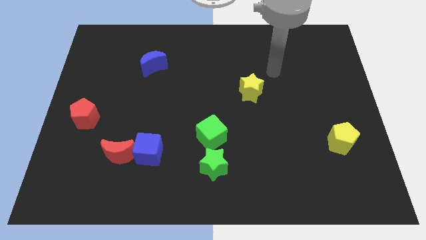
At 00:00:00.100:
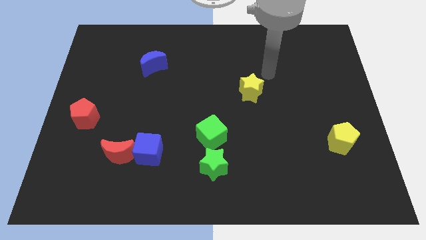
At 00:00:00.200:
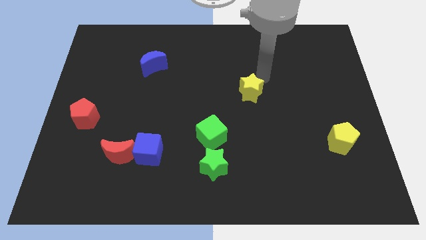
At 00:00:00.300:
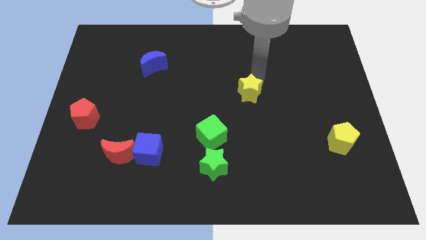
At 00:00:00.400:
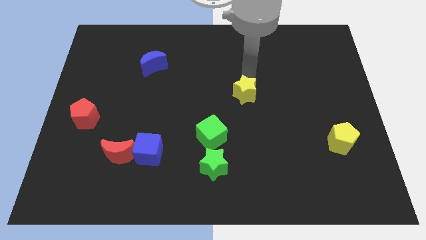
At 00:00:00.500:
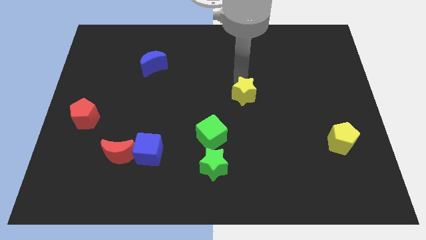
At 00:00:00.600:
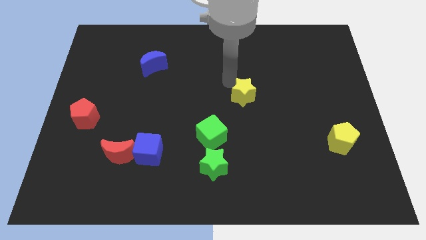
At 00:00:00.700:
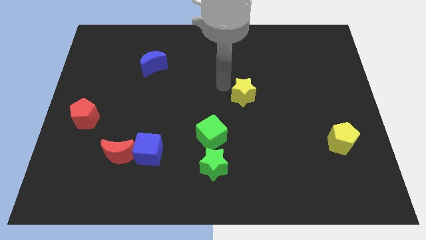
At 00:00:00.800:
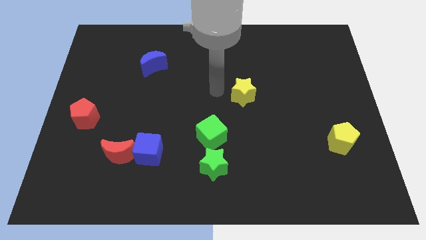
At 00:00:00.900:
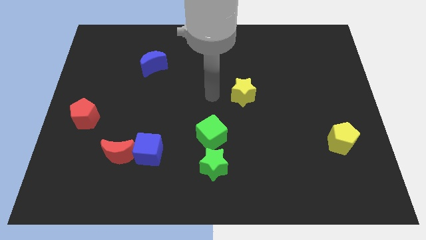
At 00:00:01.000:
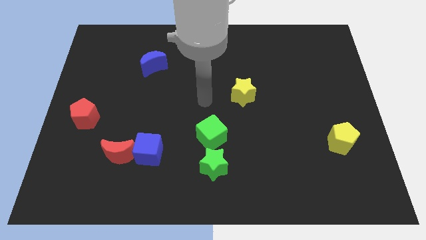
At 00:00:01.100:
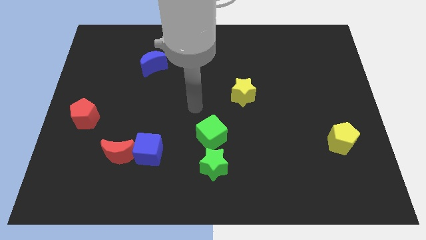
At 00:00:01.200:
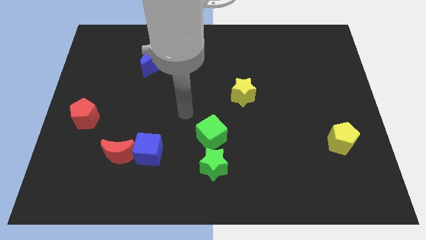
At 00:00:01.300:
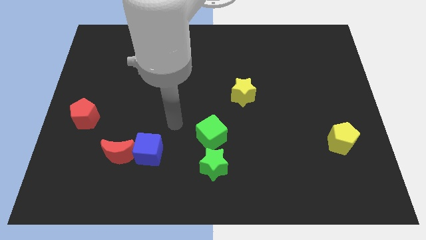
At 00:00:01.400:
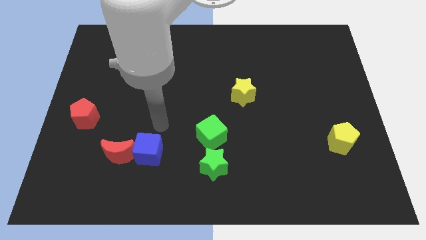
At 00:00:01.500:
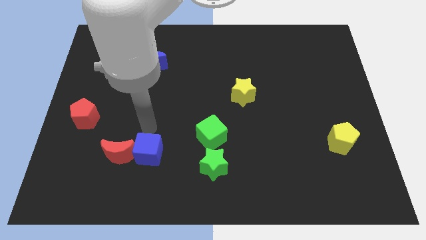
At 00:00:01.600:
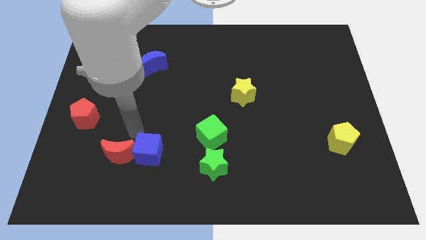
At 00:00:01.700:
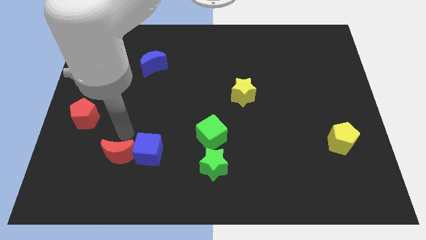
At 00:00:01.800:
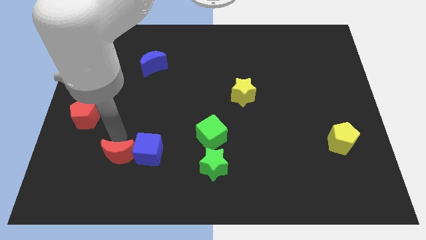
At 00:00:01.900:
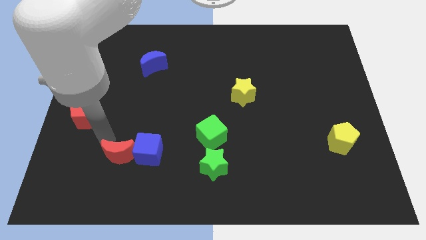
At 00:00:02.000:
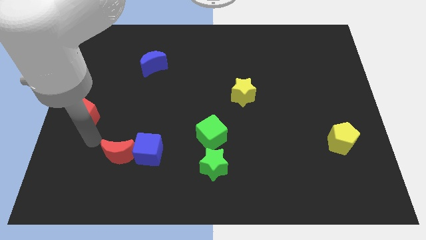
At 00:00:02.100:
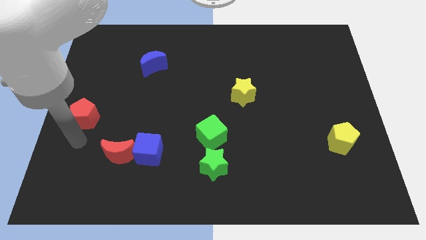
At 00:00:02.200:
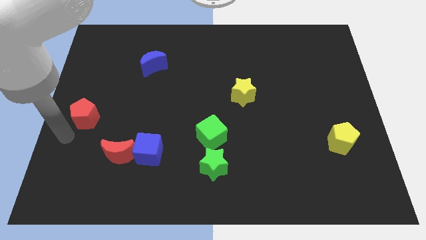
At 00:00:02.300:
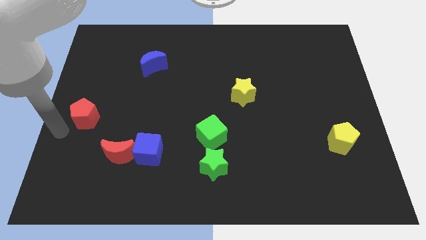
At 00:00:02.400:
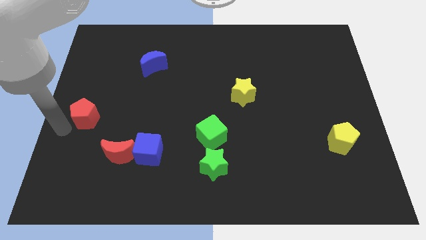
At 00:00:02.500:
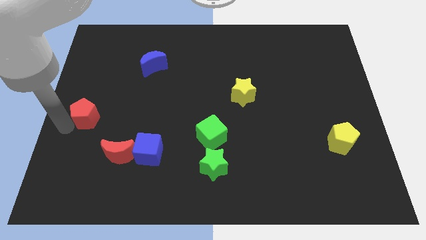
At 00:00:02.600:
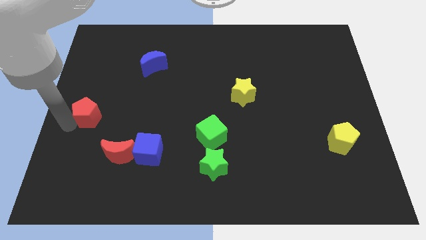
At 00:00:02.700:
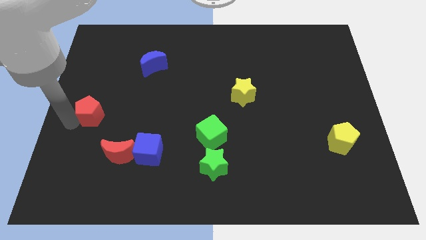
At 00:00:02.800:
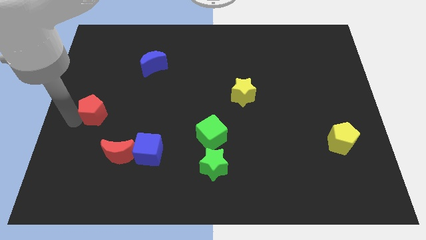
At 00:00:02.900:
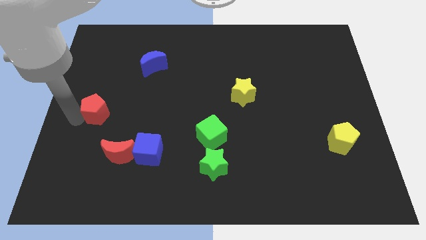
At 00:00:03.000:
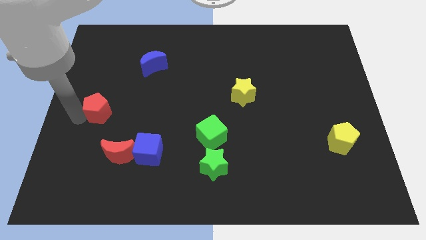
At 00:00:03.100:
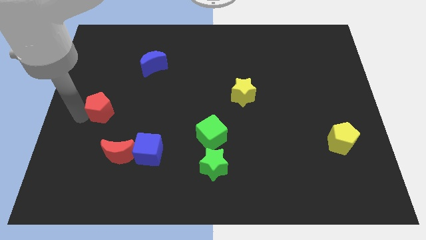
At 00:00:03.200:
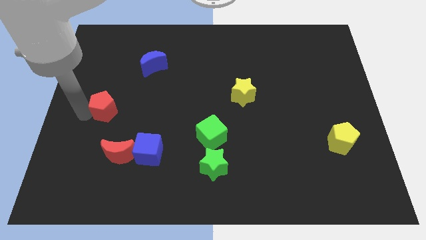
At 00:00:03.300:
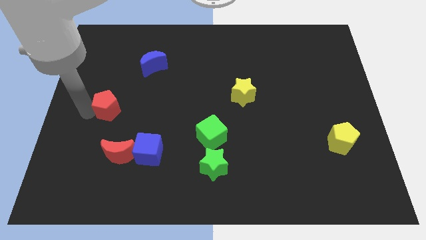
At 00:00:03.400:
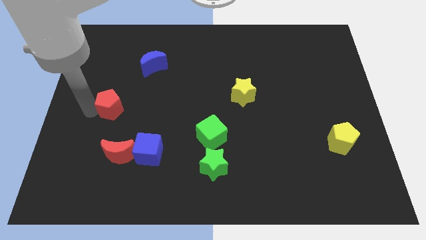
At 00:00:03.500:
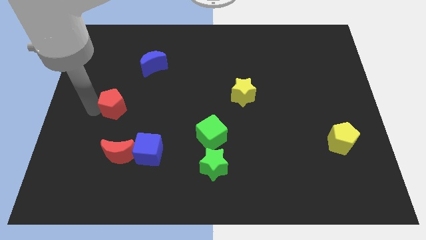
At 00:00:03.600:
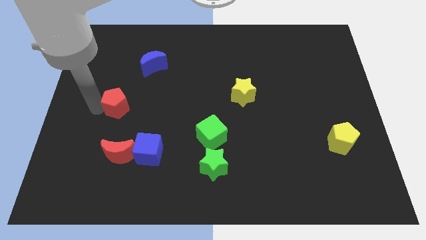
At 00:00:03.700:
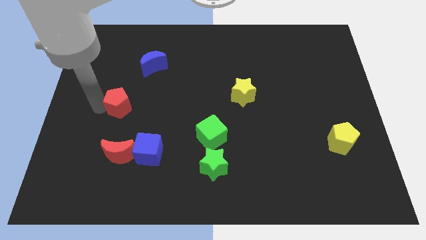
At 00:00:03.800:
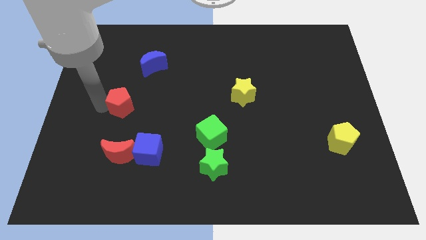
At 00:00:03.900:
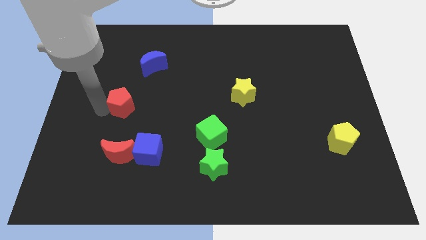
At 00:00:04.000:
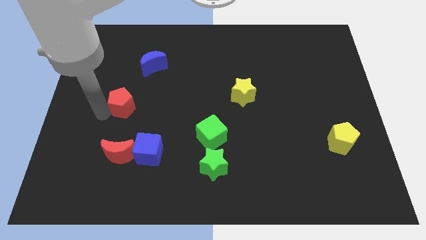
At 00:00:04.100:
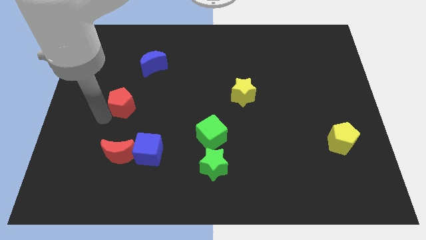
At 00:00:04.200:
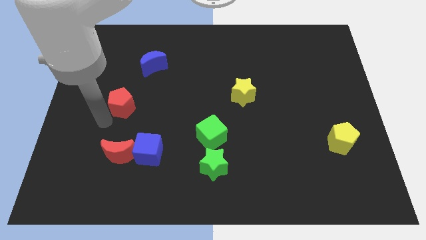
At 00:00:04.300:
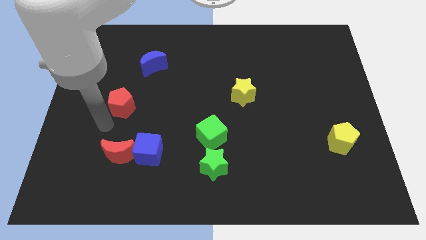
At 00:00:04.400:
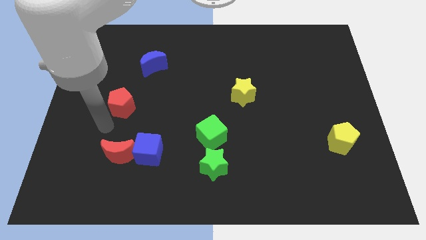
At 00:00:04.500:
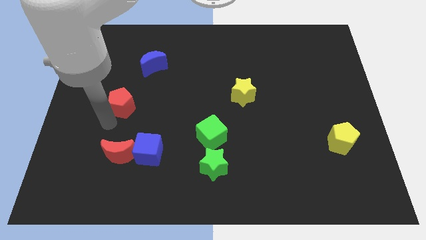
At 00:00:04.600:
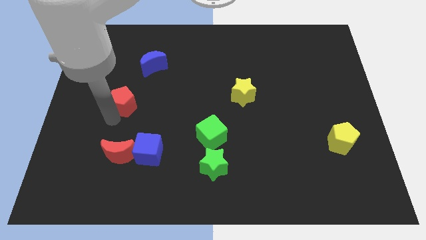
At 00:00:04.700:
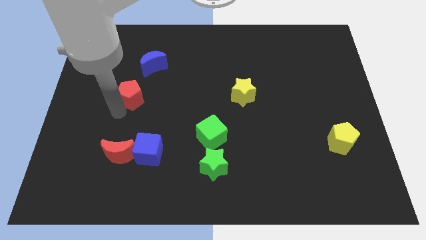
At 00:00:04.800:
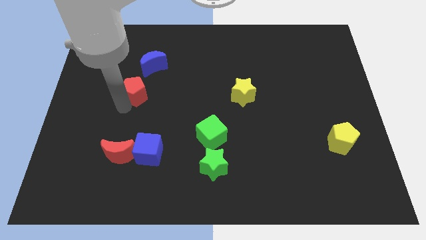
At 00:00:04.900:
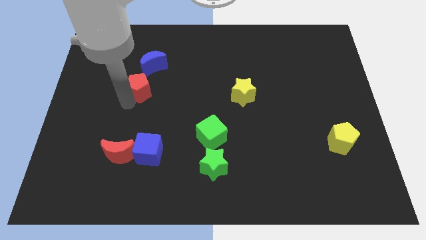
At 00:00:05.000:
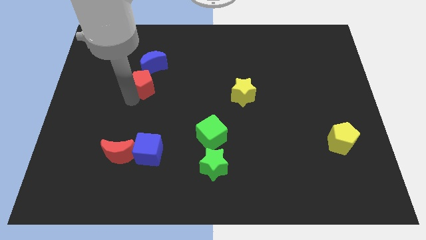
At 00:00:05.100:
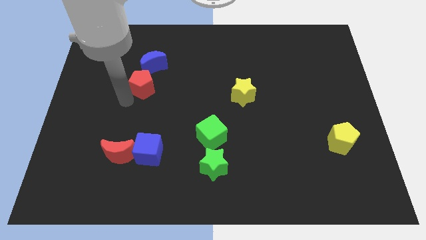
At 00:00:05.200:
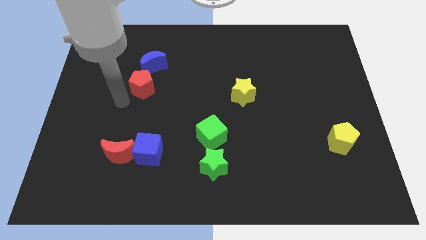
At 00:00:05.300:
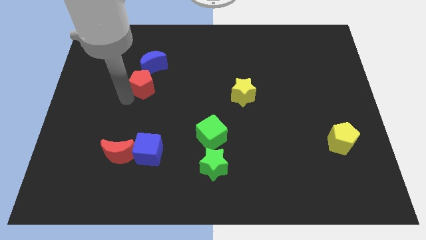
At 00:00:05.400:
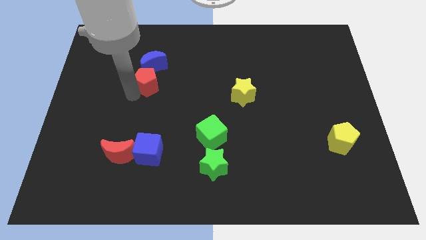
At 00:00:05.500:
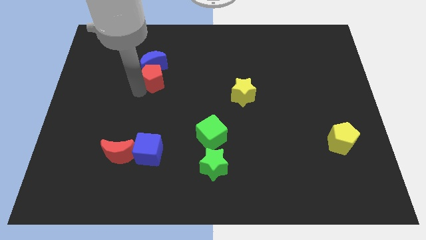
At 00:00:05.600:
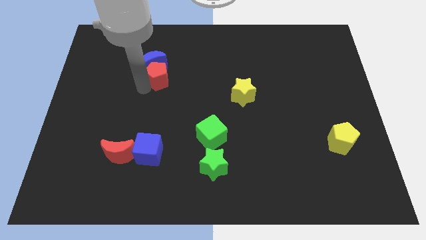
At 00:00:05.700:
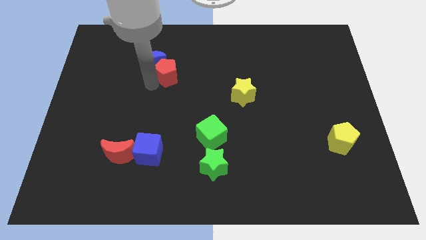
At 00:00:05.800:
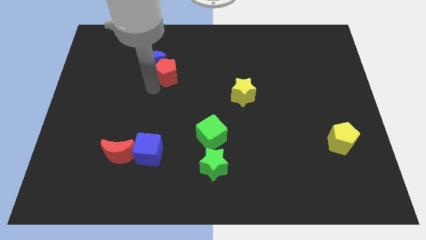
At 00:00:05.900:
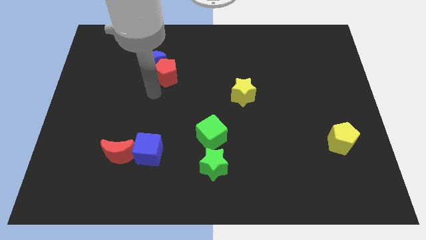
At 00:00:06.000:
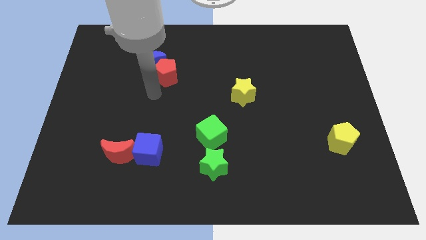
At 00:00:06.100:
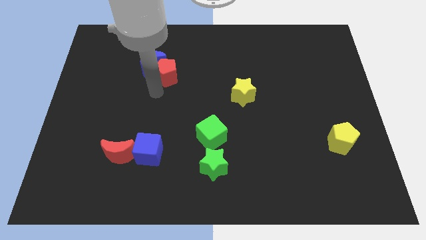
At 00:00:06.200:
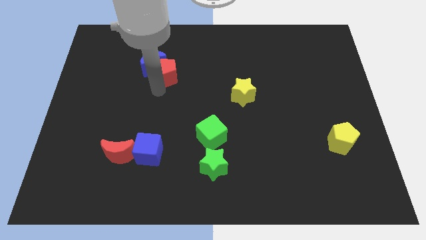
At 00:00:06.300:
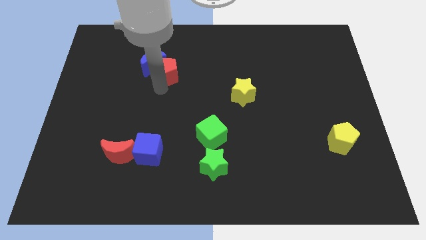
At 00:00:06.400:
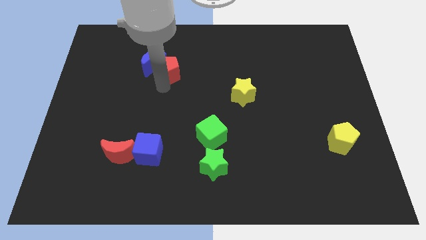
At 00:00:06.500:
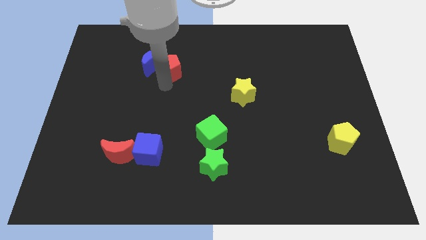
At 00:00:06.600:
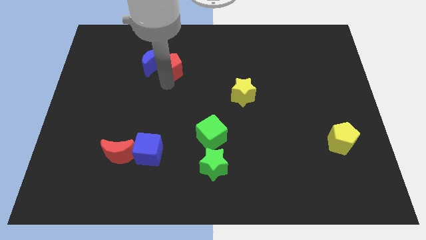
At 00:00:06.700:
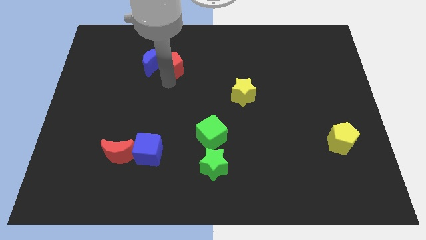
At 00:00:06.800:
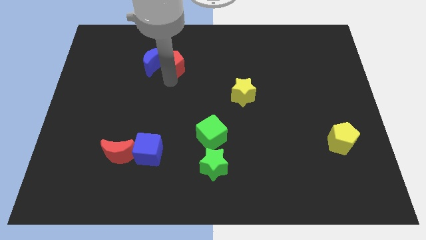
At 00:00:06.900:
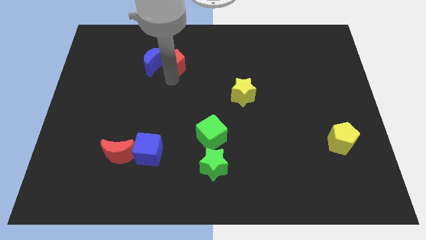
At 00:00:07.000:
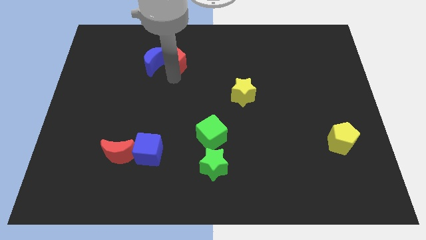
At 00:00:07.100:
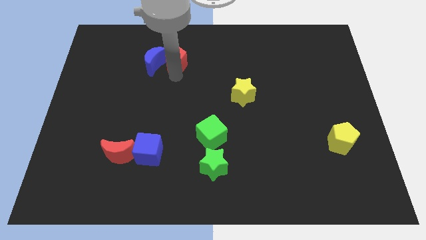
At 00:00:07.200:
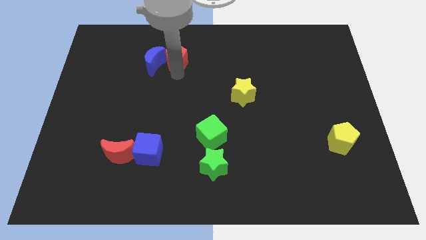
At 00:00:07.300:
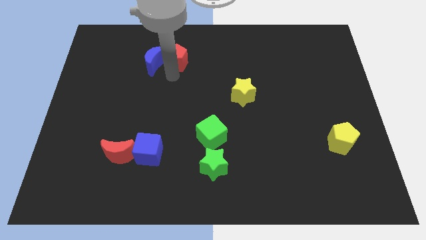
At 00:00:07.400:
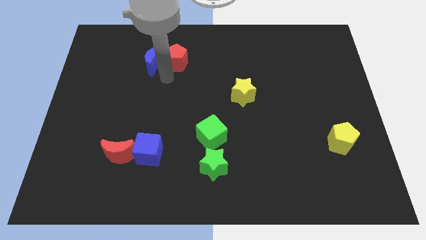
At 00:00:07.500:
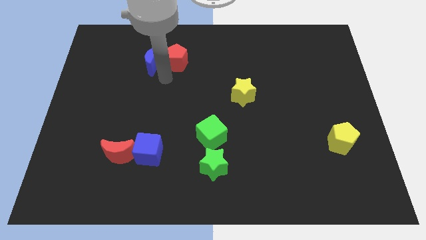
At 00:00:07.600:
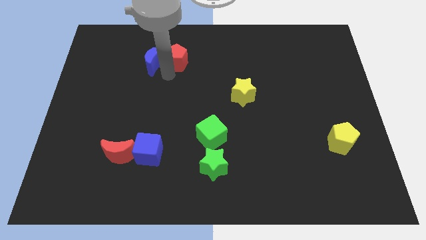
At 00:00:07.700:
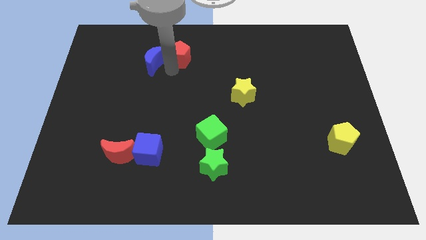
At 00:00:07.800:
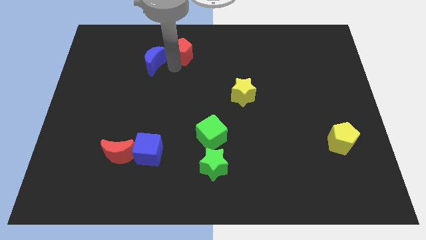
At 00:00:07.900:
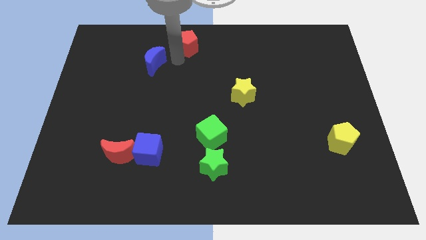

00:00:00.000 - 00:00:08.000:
put the red pentagon to the top
